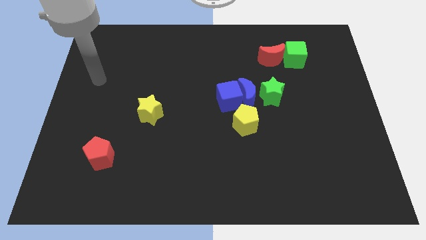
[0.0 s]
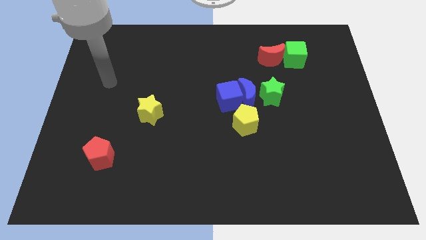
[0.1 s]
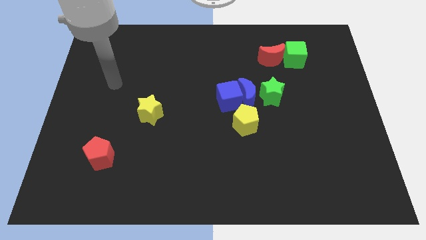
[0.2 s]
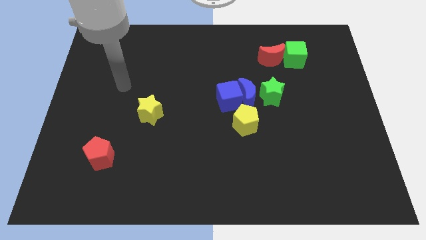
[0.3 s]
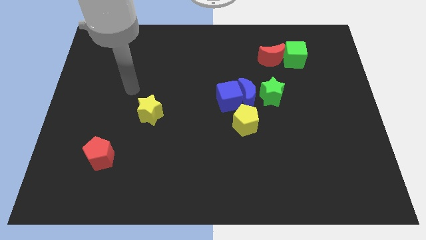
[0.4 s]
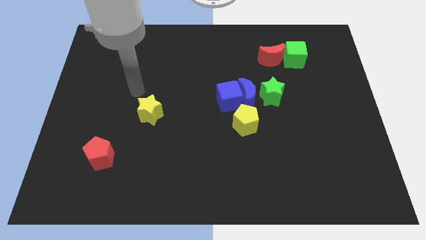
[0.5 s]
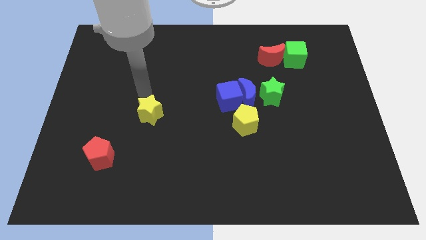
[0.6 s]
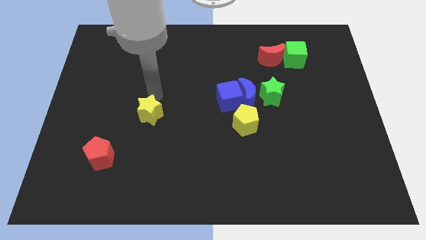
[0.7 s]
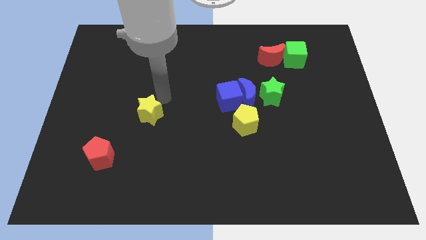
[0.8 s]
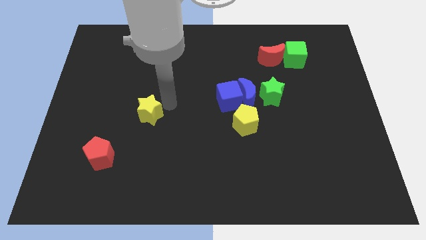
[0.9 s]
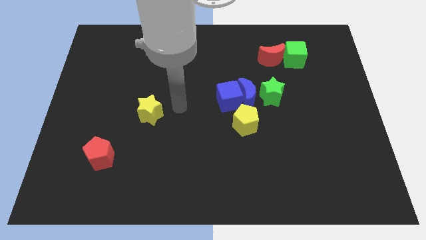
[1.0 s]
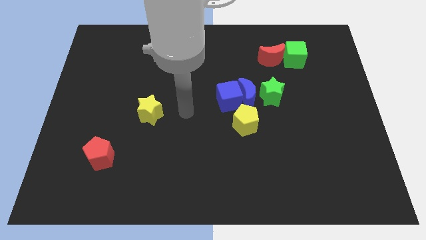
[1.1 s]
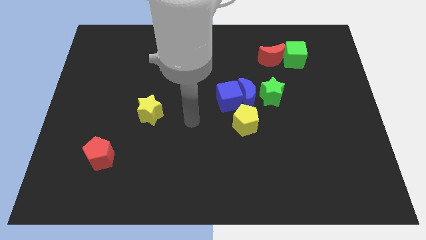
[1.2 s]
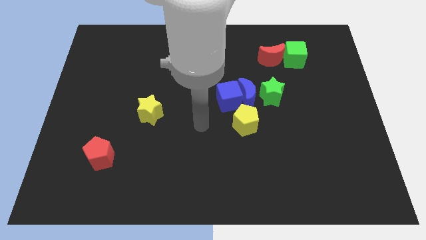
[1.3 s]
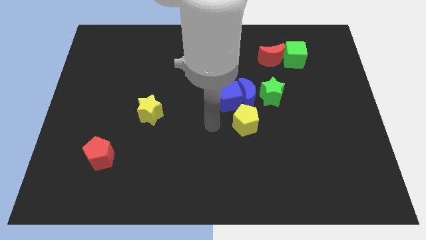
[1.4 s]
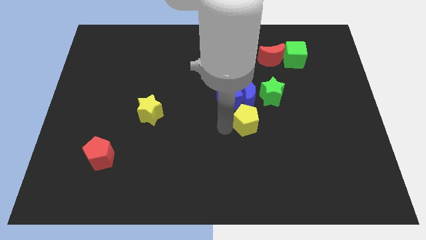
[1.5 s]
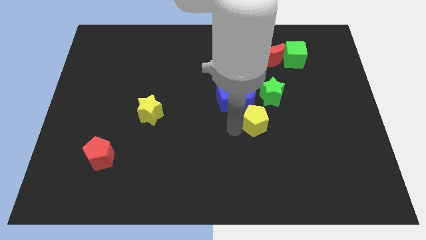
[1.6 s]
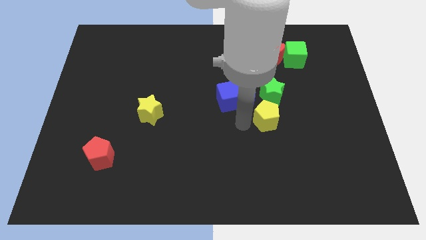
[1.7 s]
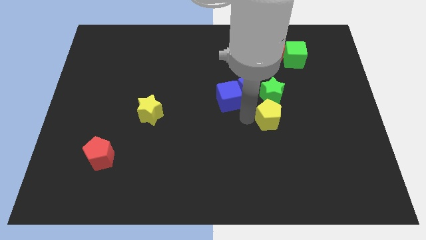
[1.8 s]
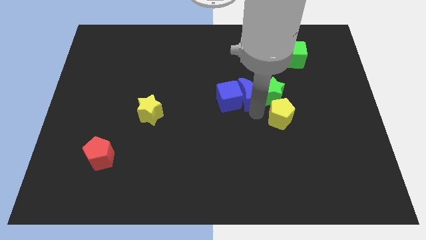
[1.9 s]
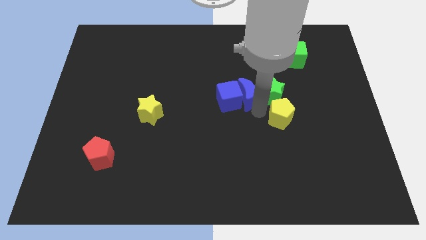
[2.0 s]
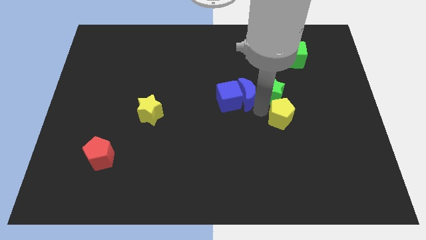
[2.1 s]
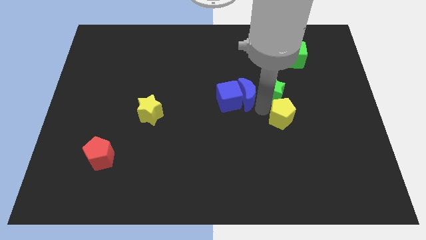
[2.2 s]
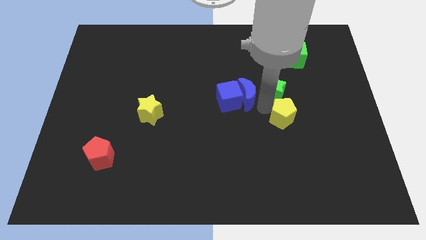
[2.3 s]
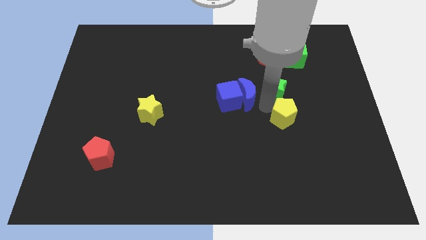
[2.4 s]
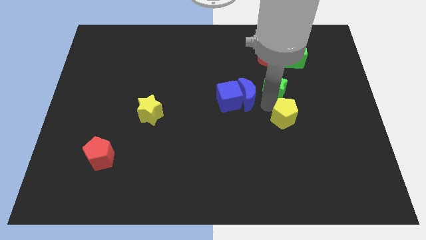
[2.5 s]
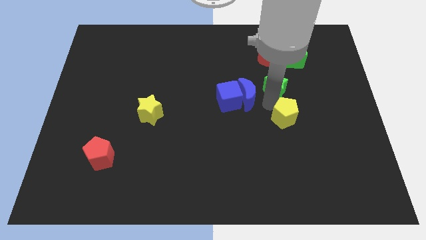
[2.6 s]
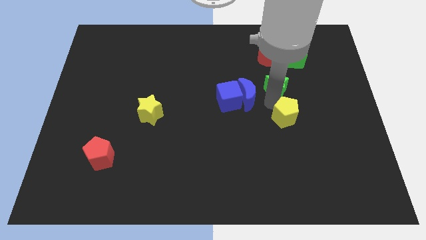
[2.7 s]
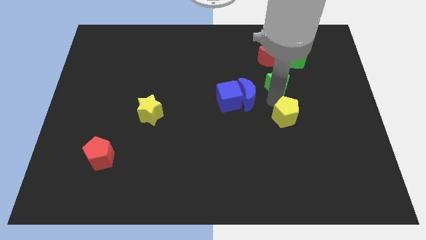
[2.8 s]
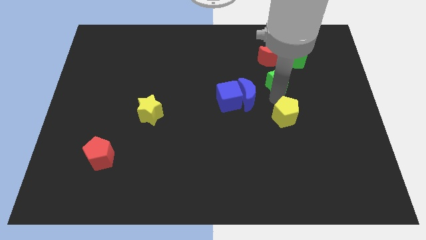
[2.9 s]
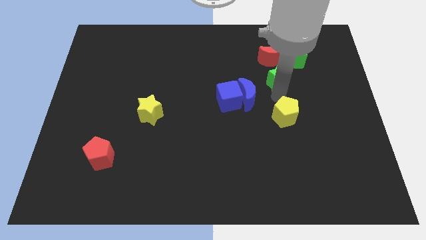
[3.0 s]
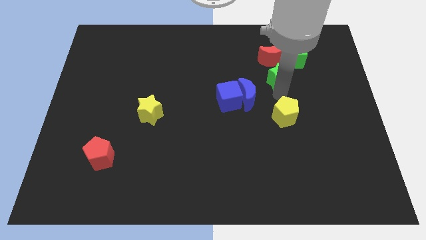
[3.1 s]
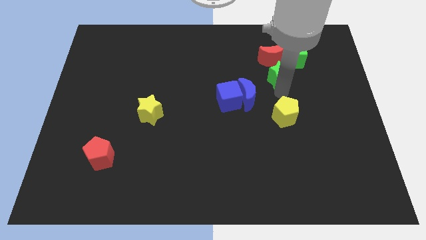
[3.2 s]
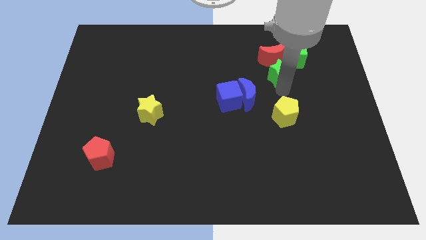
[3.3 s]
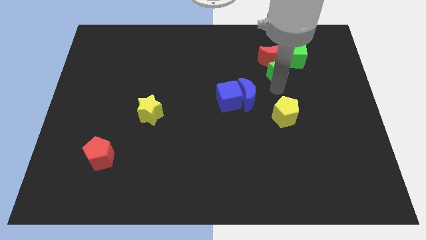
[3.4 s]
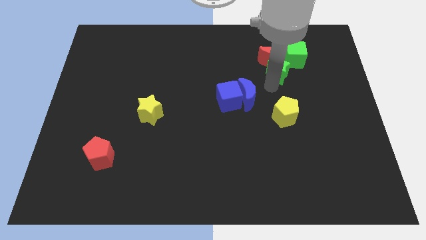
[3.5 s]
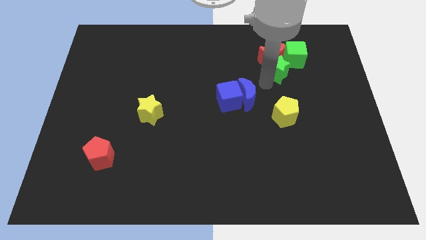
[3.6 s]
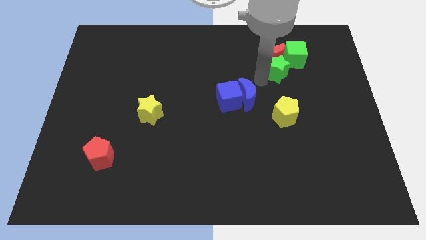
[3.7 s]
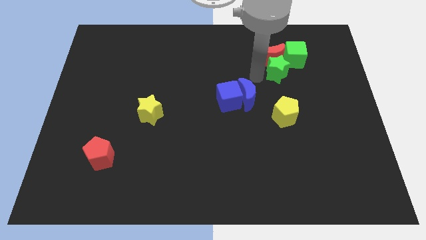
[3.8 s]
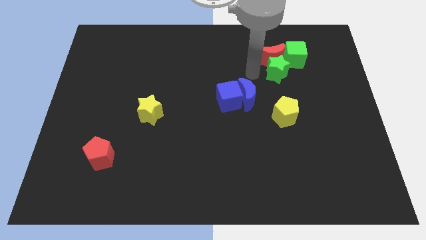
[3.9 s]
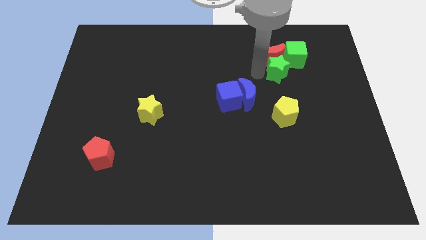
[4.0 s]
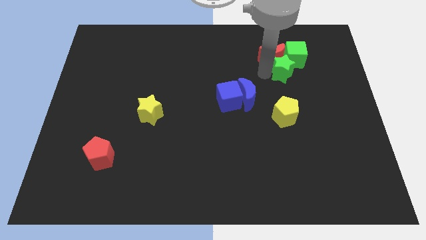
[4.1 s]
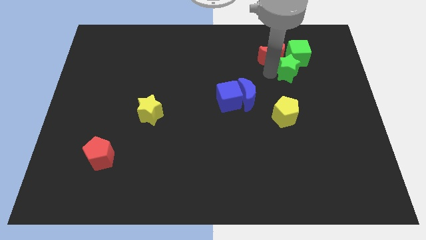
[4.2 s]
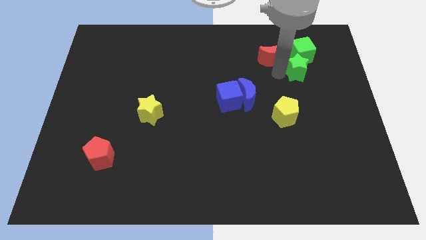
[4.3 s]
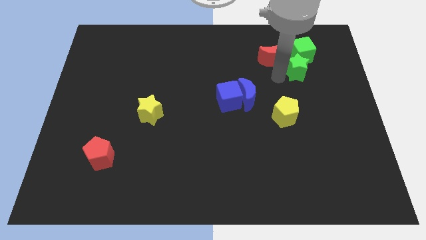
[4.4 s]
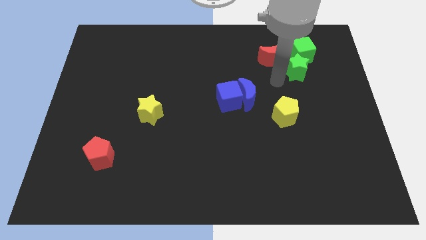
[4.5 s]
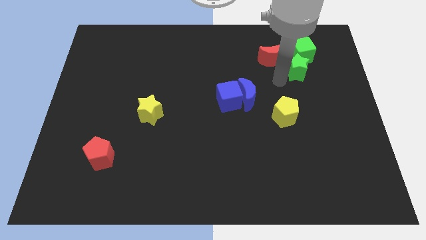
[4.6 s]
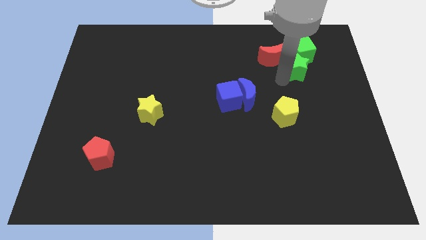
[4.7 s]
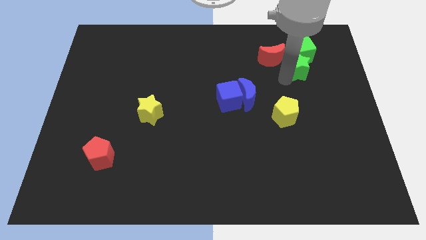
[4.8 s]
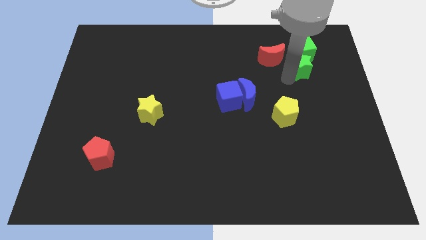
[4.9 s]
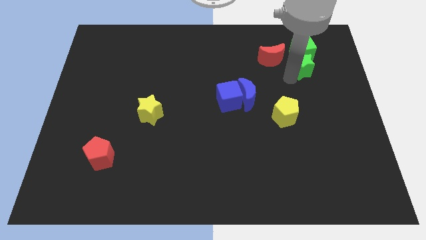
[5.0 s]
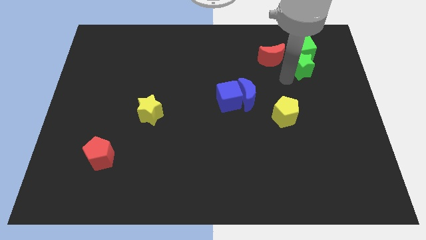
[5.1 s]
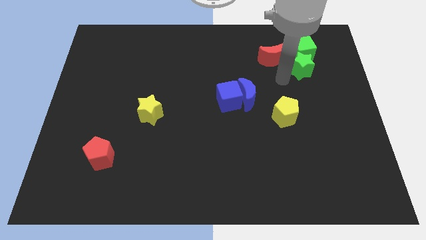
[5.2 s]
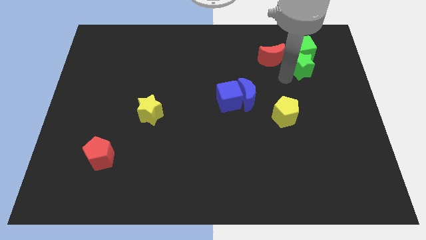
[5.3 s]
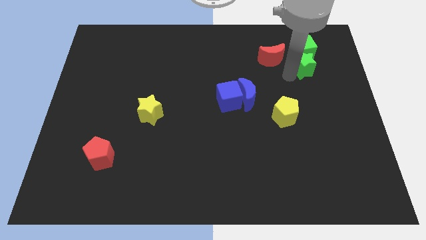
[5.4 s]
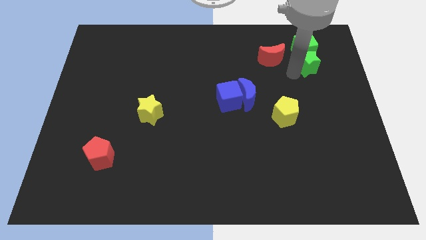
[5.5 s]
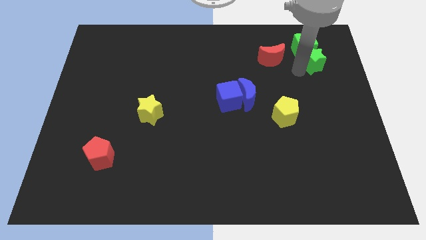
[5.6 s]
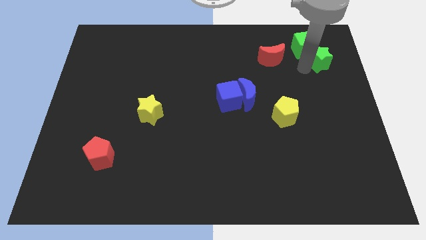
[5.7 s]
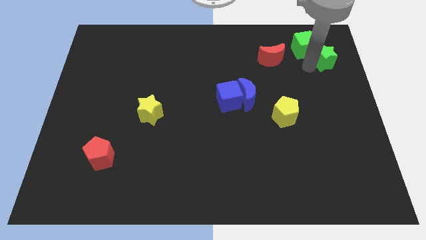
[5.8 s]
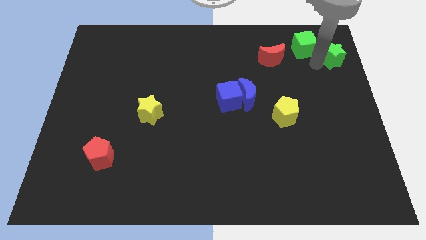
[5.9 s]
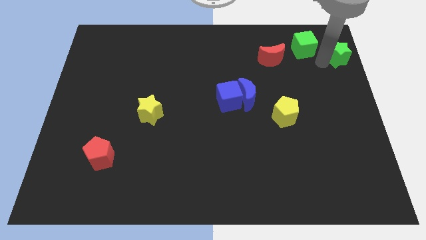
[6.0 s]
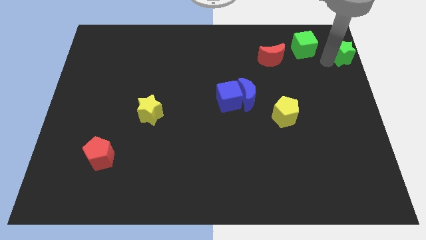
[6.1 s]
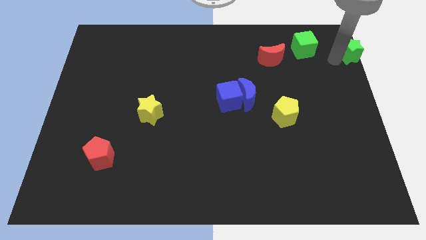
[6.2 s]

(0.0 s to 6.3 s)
move the green star to the upper right corner
